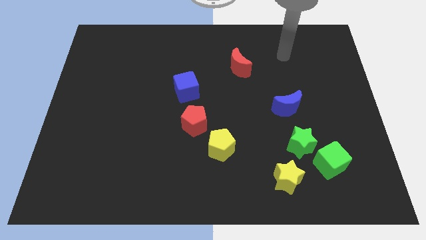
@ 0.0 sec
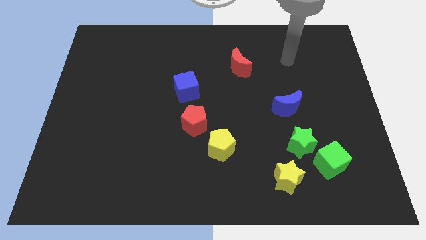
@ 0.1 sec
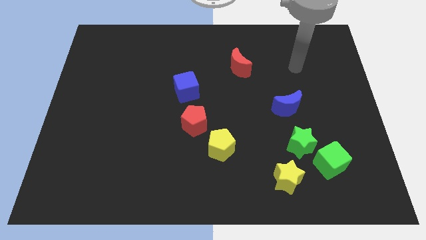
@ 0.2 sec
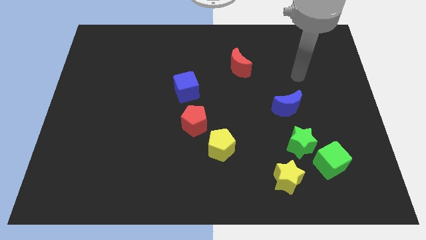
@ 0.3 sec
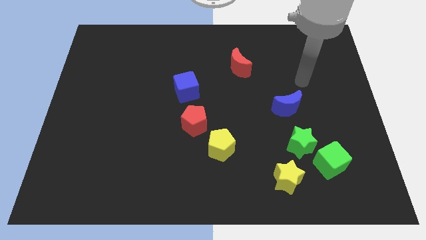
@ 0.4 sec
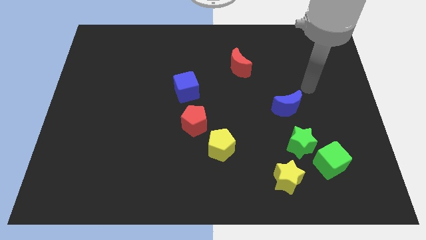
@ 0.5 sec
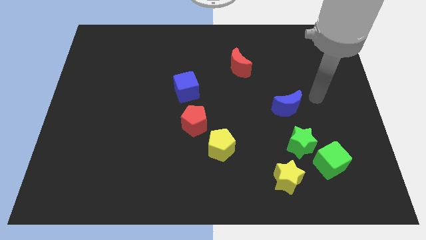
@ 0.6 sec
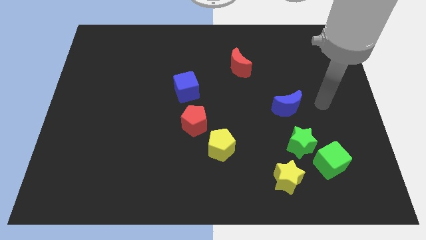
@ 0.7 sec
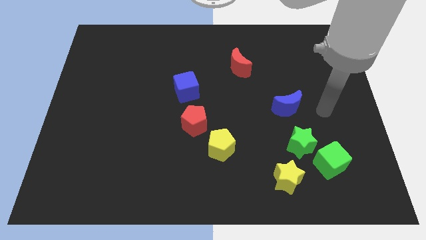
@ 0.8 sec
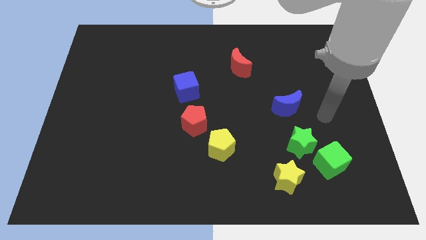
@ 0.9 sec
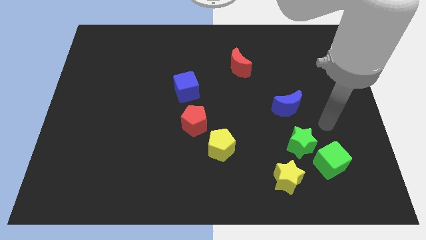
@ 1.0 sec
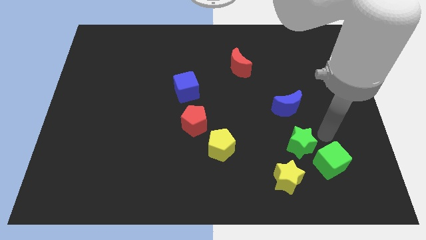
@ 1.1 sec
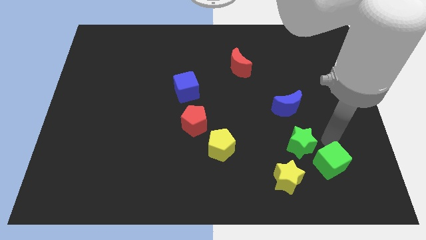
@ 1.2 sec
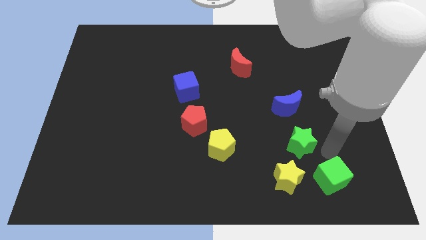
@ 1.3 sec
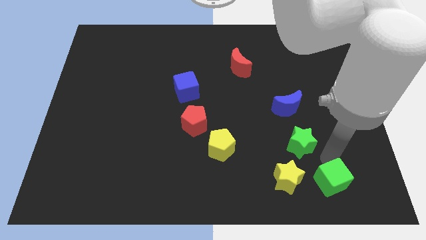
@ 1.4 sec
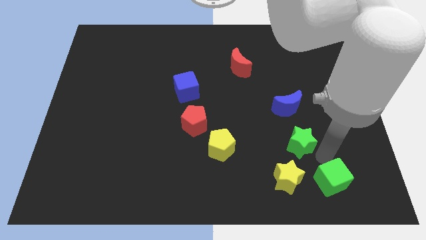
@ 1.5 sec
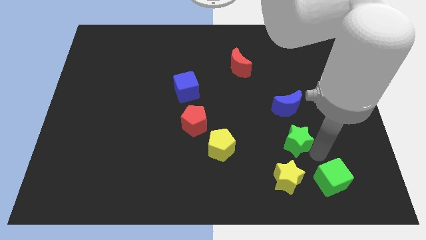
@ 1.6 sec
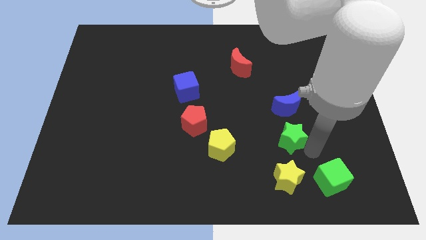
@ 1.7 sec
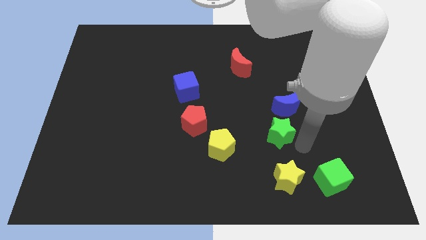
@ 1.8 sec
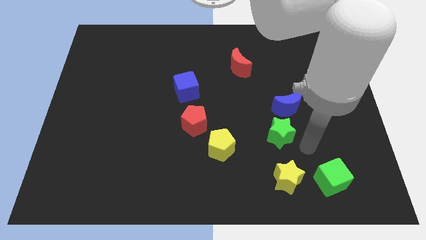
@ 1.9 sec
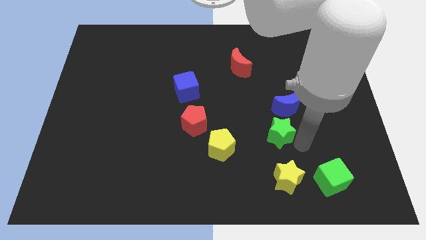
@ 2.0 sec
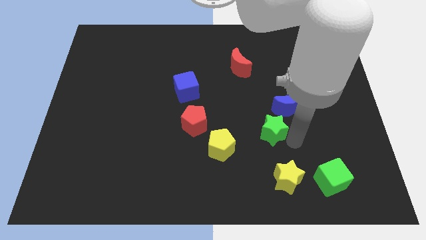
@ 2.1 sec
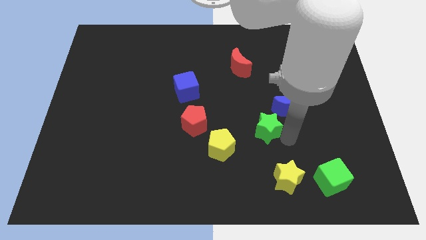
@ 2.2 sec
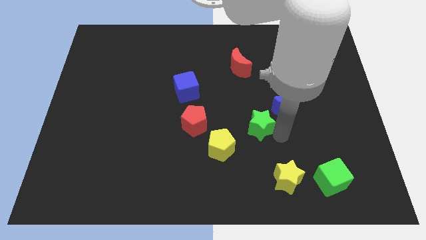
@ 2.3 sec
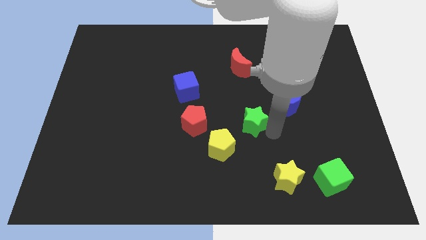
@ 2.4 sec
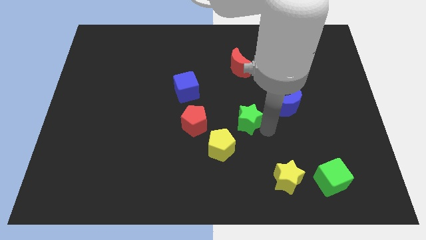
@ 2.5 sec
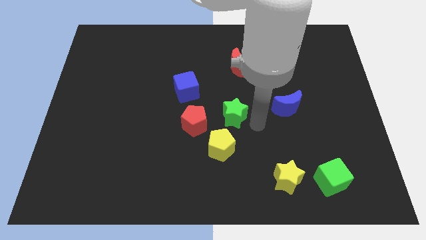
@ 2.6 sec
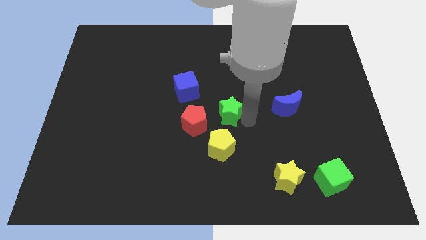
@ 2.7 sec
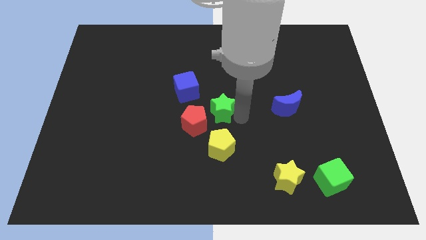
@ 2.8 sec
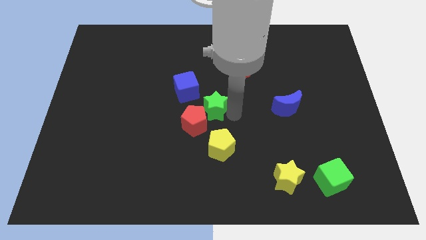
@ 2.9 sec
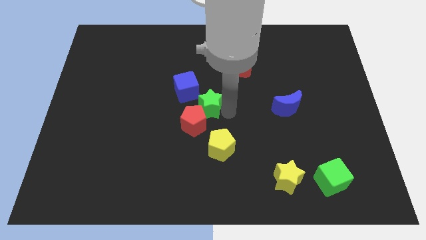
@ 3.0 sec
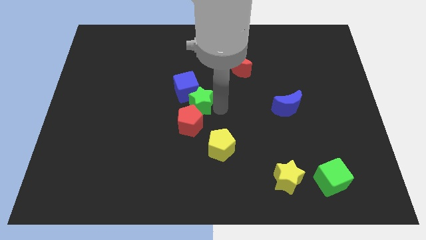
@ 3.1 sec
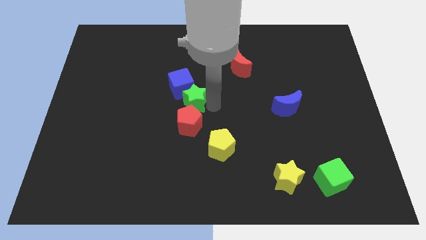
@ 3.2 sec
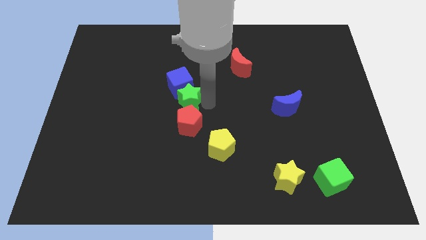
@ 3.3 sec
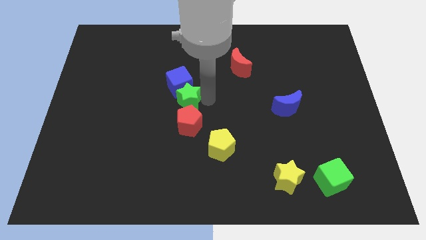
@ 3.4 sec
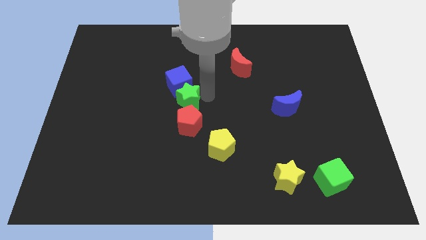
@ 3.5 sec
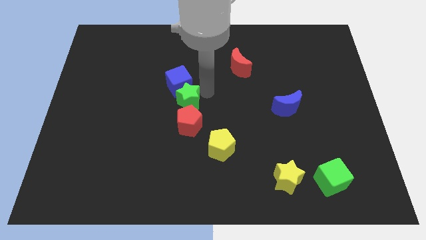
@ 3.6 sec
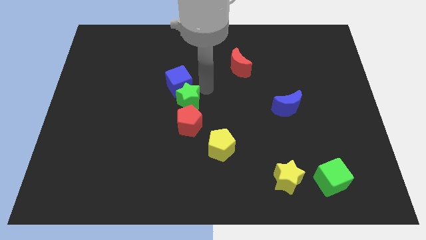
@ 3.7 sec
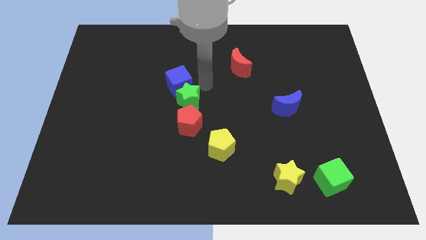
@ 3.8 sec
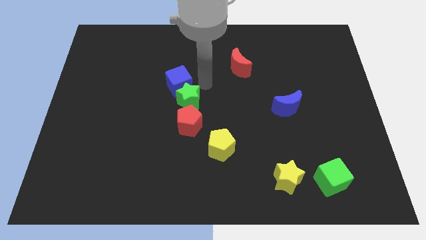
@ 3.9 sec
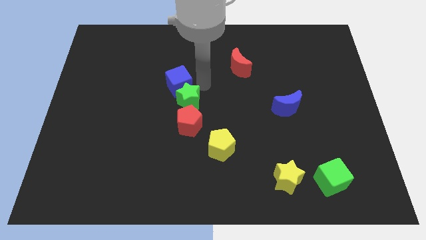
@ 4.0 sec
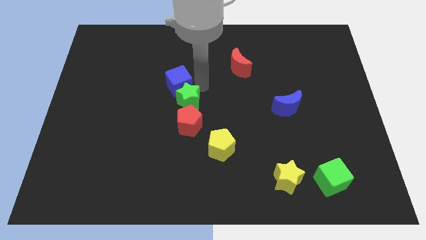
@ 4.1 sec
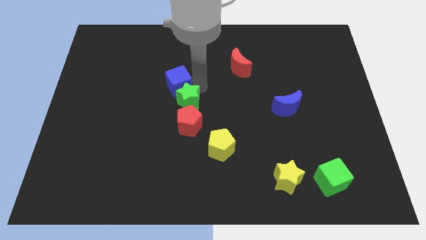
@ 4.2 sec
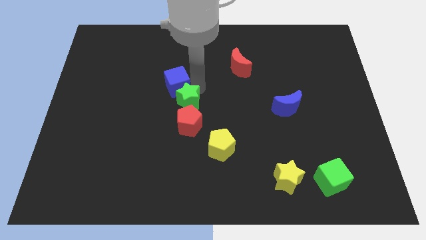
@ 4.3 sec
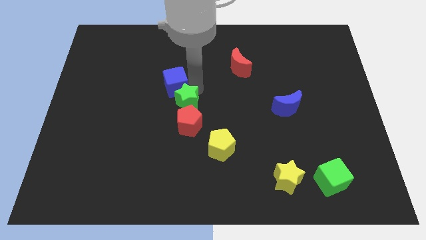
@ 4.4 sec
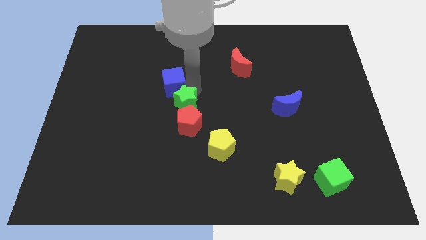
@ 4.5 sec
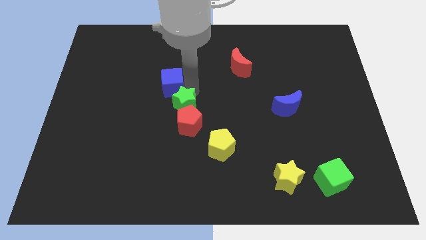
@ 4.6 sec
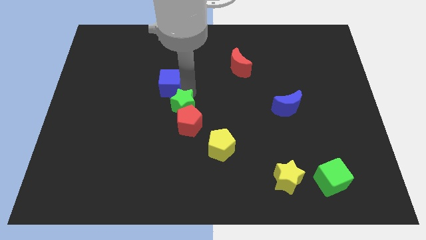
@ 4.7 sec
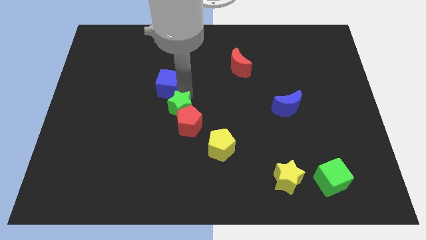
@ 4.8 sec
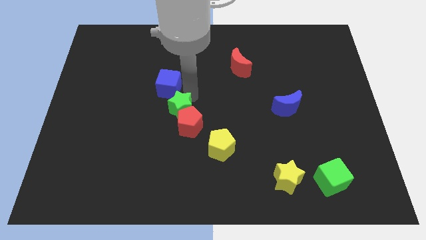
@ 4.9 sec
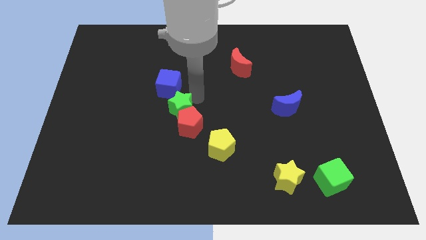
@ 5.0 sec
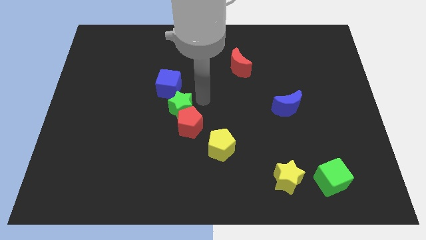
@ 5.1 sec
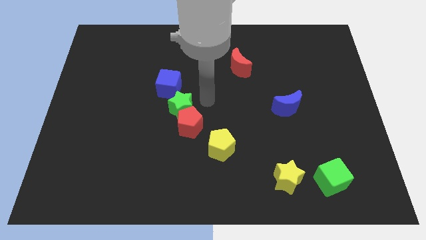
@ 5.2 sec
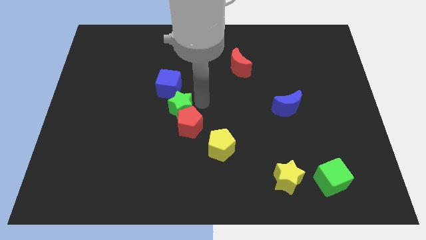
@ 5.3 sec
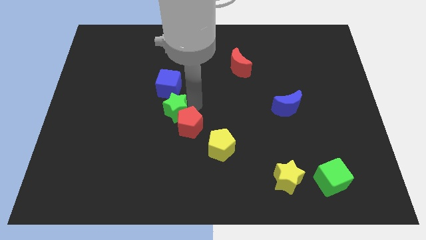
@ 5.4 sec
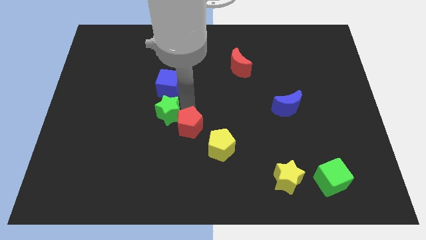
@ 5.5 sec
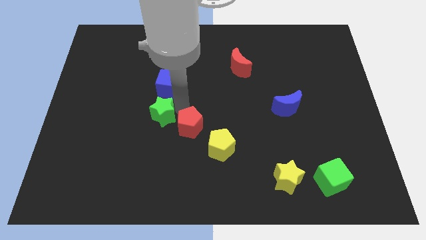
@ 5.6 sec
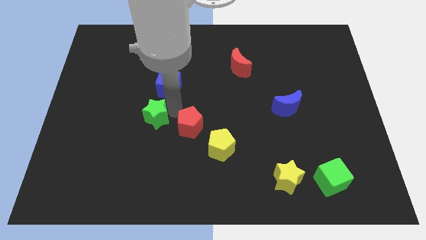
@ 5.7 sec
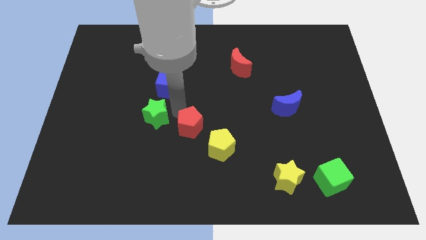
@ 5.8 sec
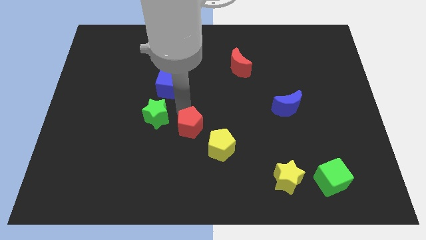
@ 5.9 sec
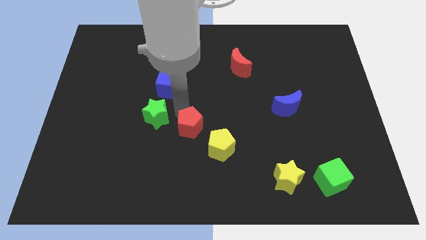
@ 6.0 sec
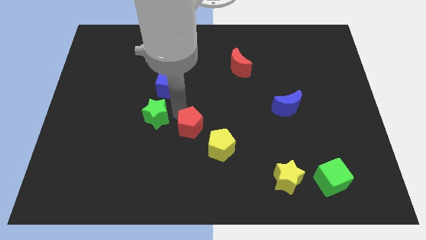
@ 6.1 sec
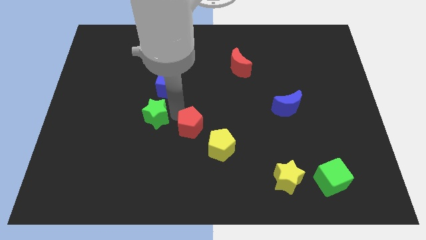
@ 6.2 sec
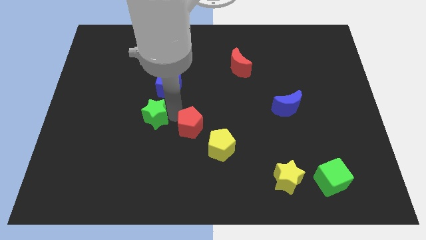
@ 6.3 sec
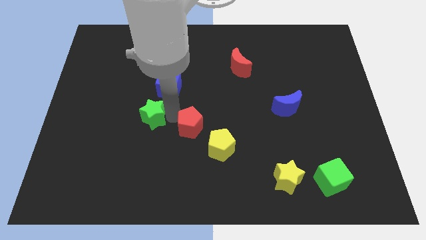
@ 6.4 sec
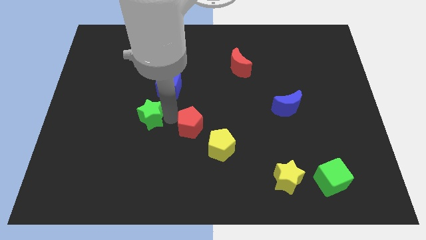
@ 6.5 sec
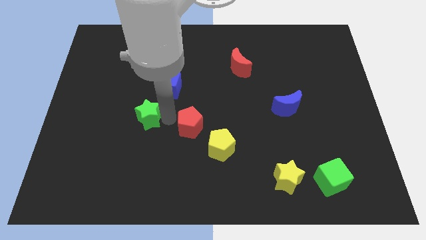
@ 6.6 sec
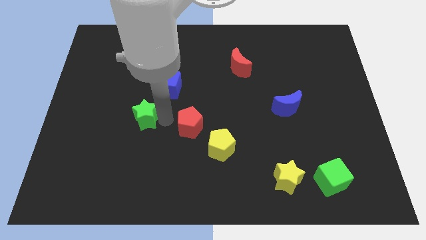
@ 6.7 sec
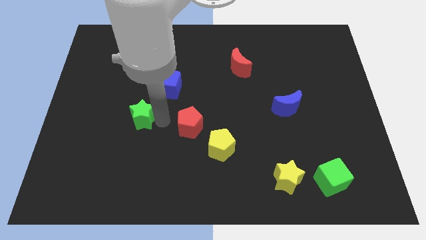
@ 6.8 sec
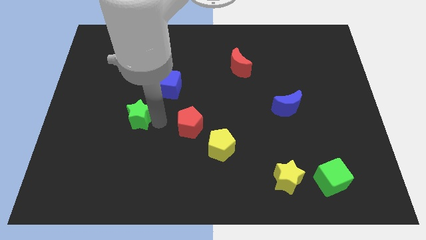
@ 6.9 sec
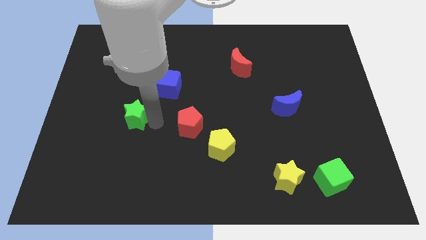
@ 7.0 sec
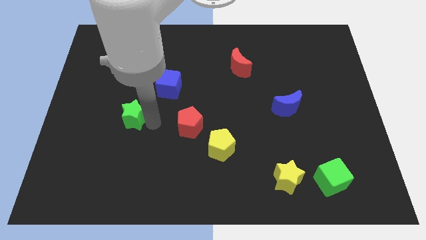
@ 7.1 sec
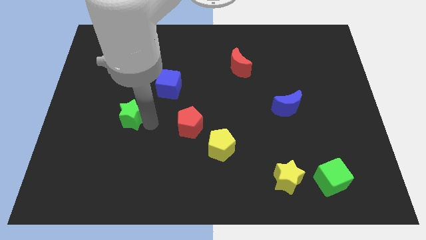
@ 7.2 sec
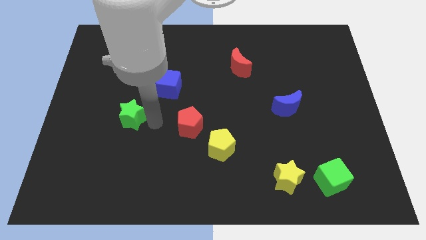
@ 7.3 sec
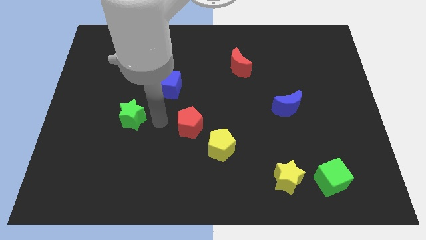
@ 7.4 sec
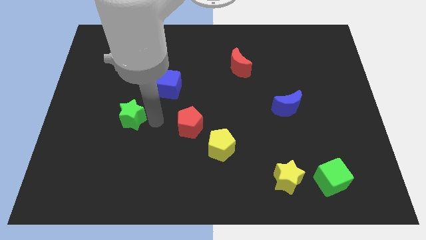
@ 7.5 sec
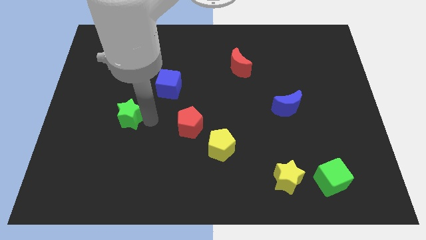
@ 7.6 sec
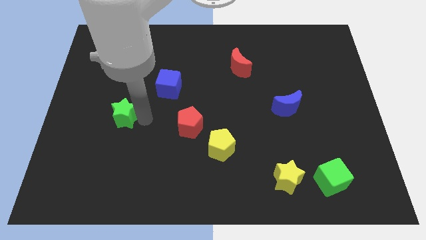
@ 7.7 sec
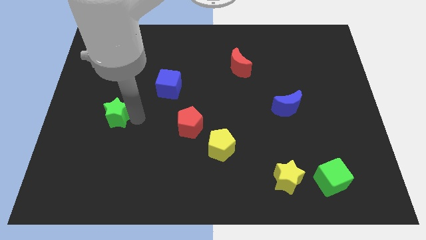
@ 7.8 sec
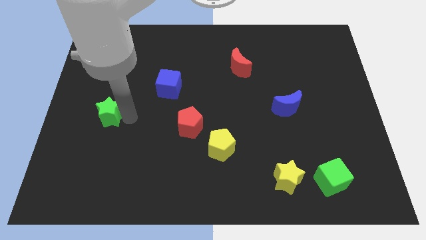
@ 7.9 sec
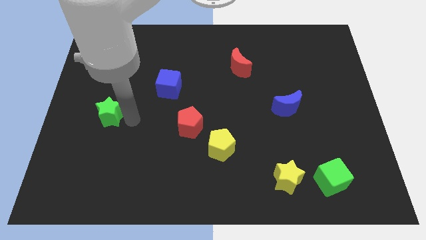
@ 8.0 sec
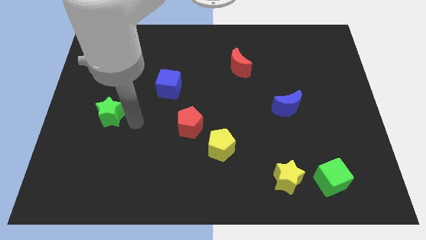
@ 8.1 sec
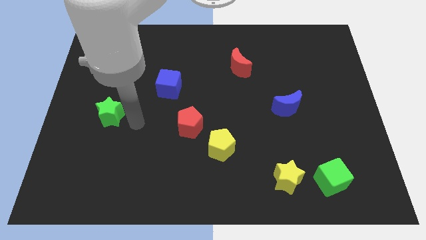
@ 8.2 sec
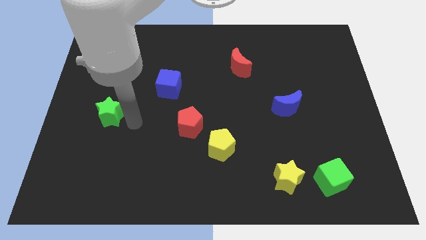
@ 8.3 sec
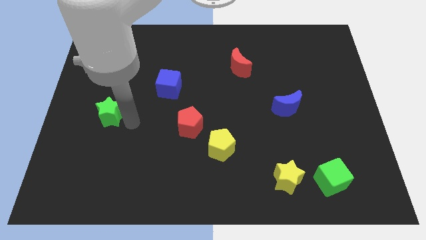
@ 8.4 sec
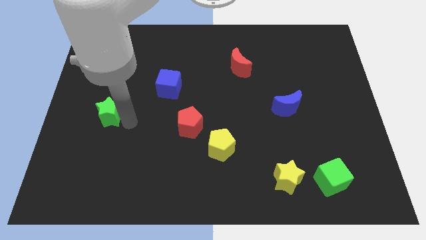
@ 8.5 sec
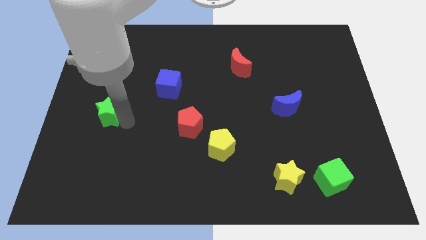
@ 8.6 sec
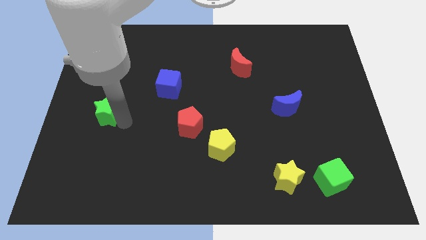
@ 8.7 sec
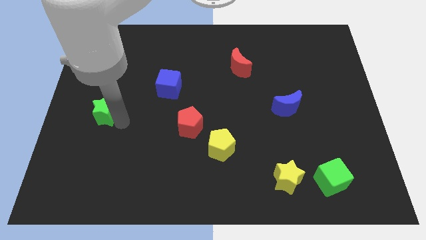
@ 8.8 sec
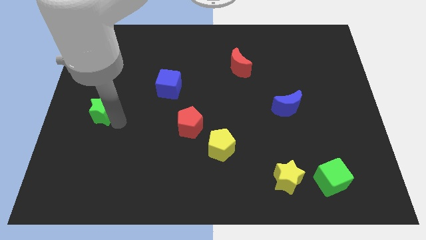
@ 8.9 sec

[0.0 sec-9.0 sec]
push the green star to the center left
